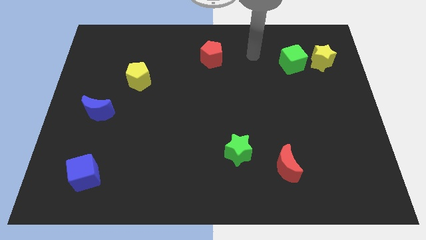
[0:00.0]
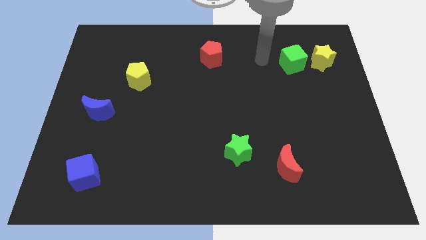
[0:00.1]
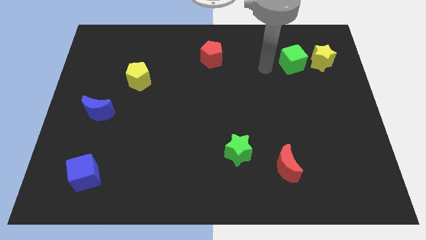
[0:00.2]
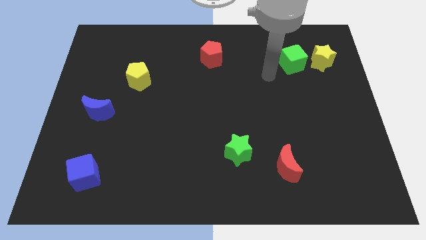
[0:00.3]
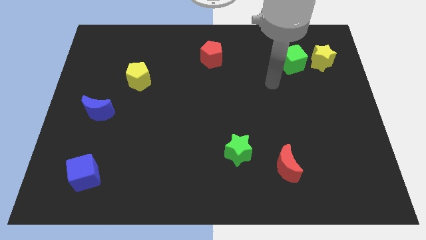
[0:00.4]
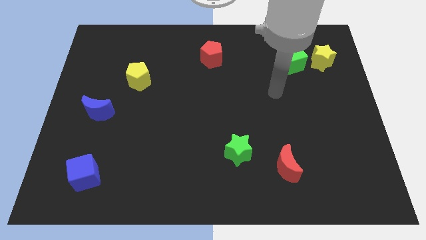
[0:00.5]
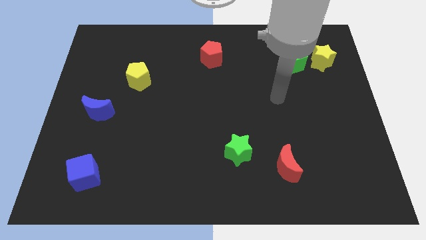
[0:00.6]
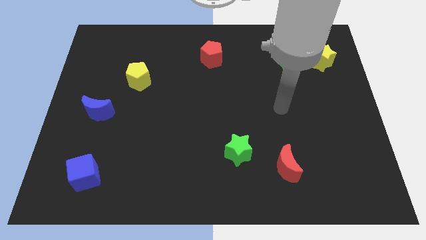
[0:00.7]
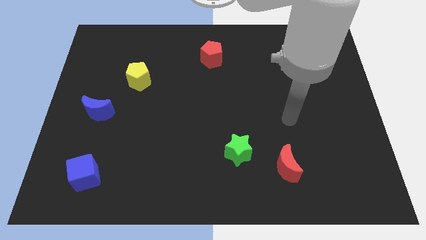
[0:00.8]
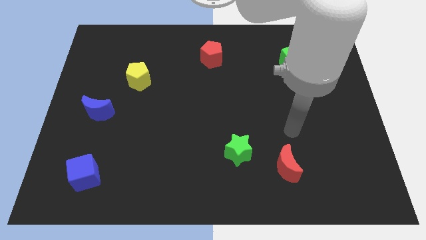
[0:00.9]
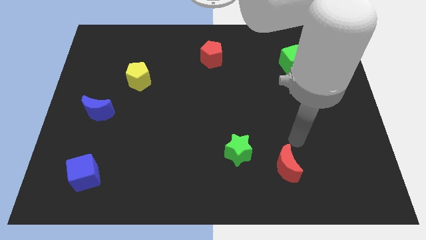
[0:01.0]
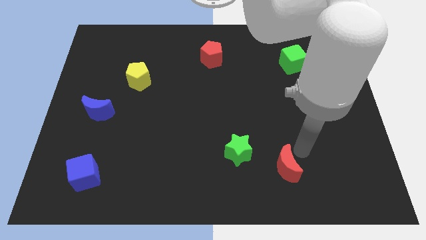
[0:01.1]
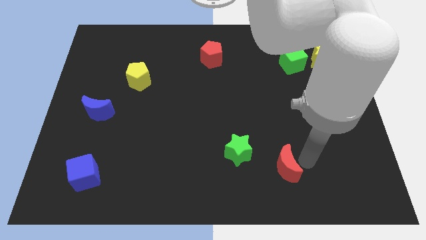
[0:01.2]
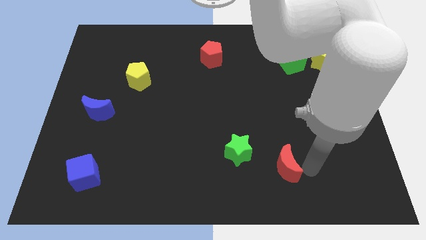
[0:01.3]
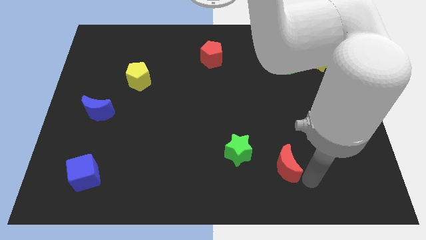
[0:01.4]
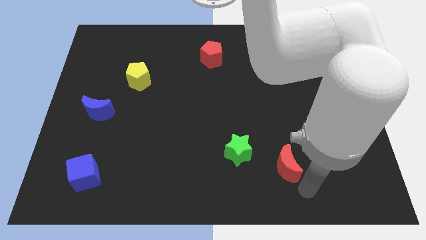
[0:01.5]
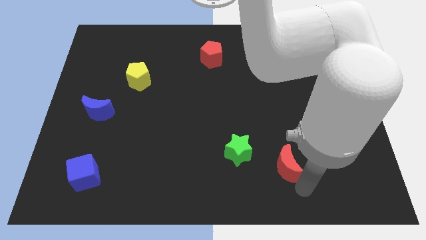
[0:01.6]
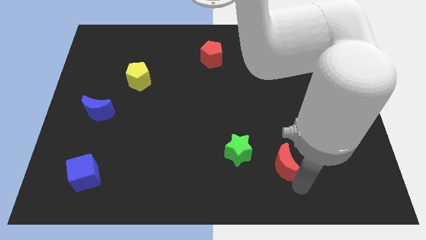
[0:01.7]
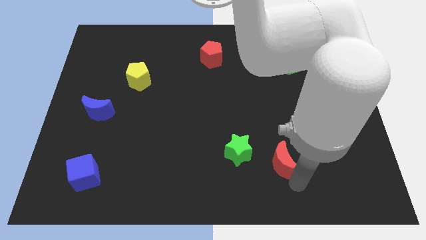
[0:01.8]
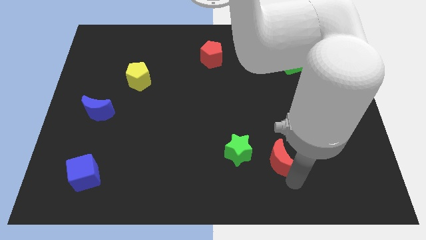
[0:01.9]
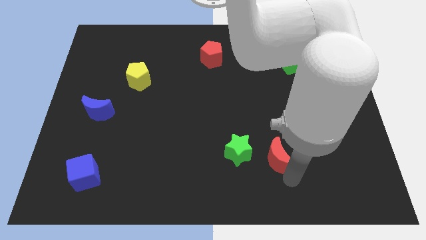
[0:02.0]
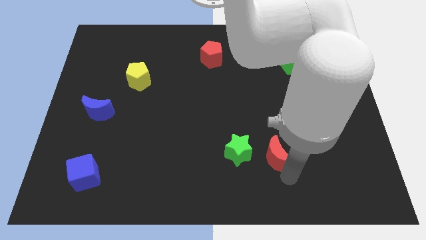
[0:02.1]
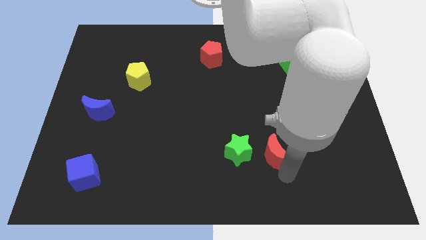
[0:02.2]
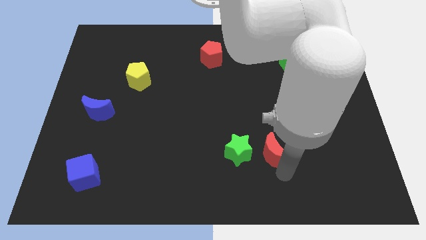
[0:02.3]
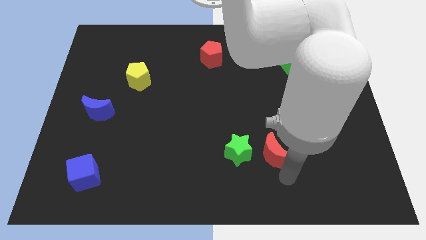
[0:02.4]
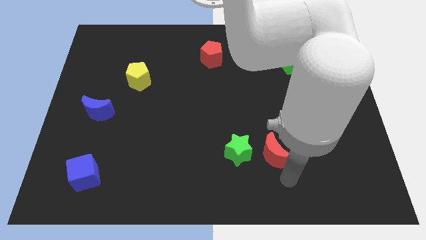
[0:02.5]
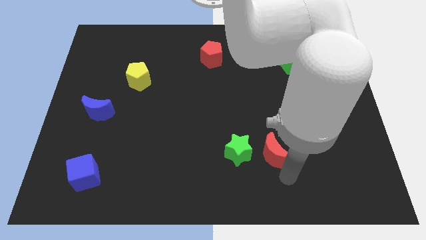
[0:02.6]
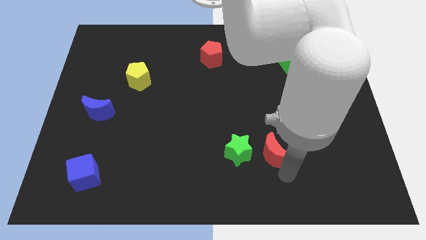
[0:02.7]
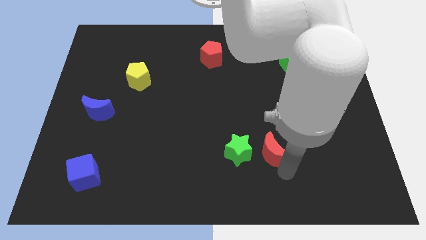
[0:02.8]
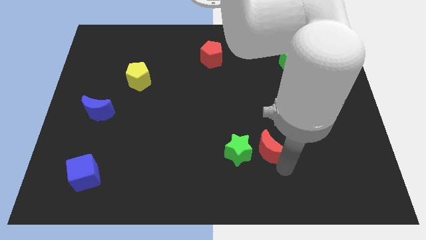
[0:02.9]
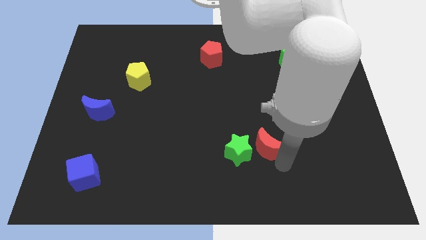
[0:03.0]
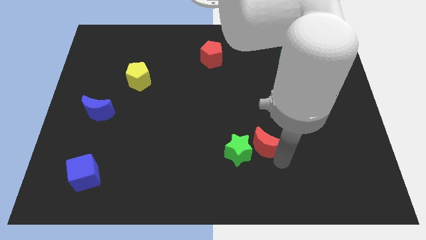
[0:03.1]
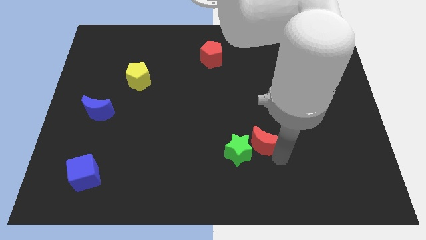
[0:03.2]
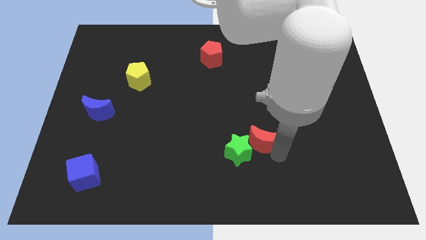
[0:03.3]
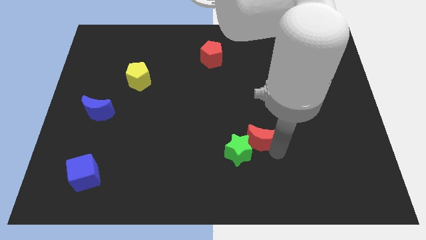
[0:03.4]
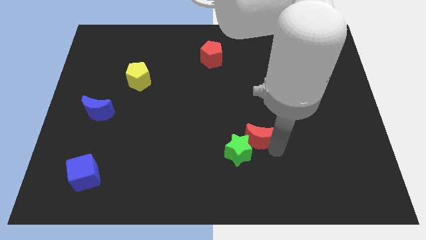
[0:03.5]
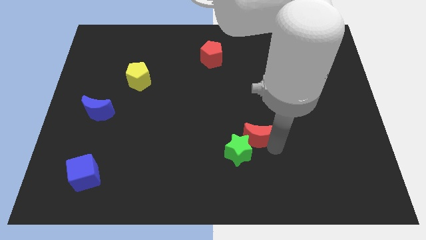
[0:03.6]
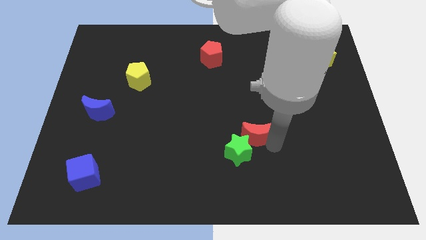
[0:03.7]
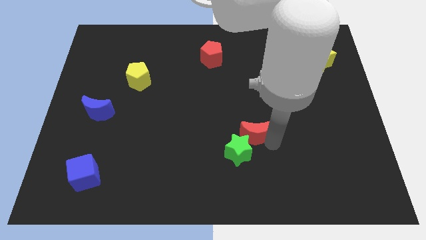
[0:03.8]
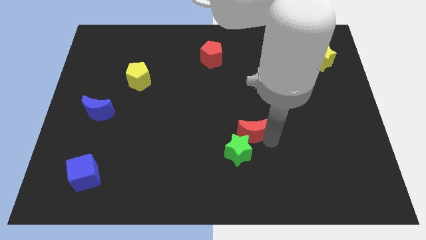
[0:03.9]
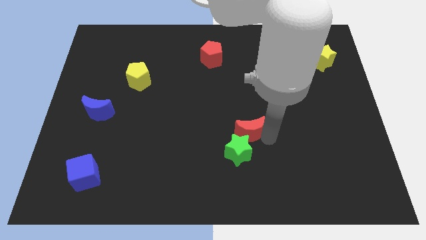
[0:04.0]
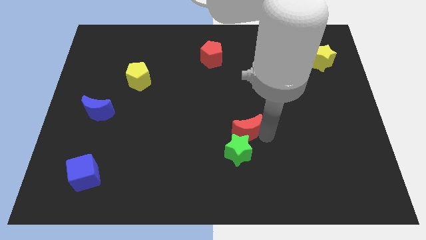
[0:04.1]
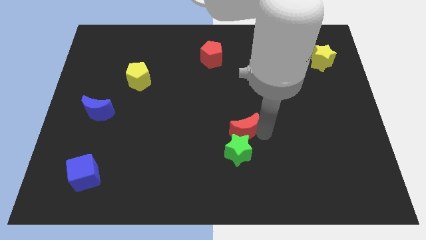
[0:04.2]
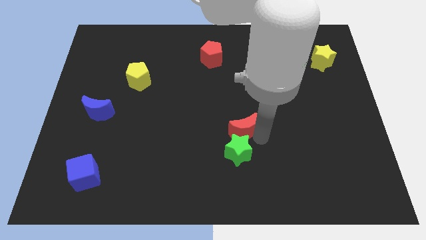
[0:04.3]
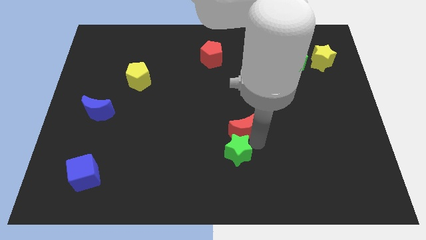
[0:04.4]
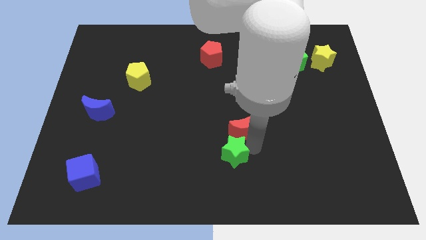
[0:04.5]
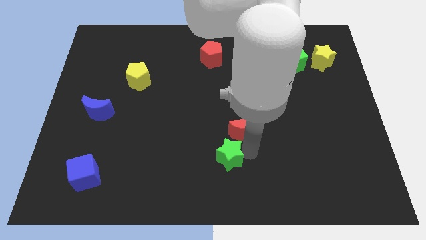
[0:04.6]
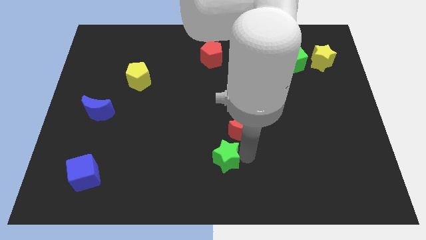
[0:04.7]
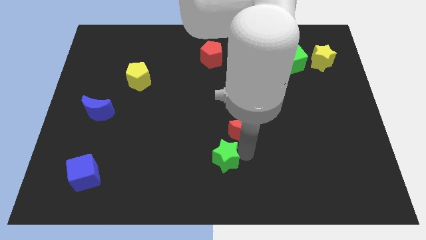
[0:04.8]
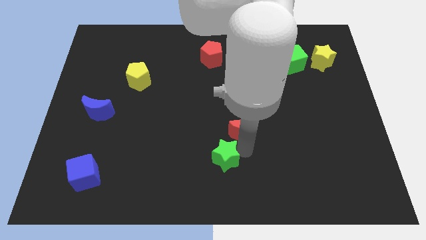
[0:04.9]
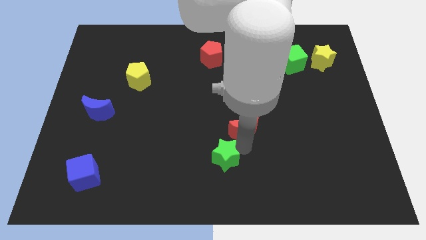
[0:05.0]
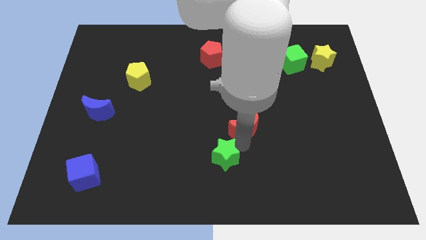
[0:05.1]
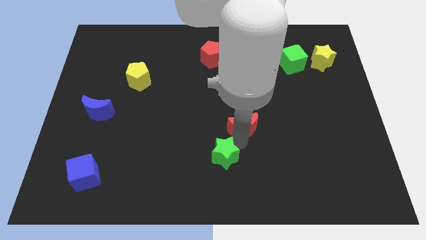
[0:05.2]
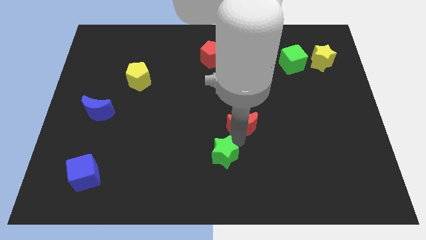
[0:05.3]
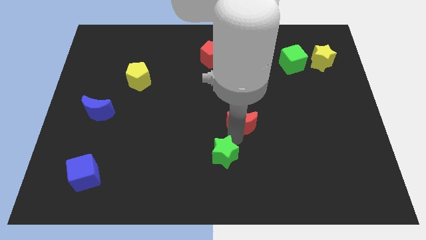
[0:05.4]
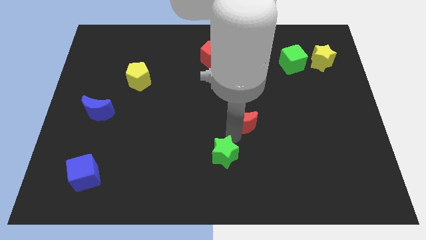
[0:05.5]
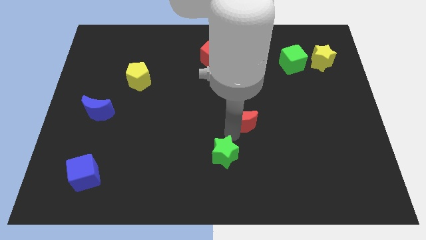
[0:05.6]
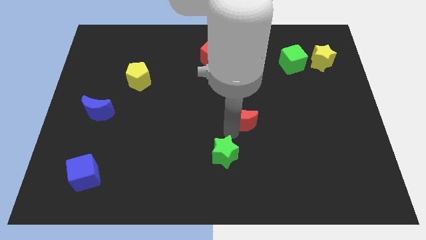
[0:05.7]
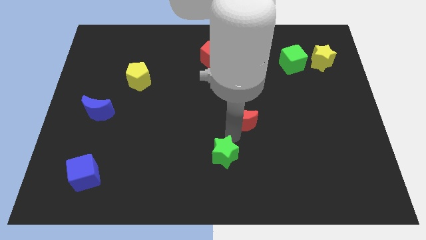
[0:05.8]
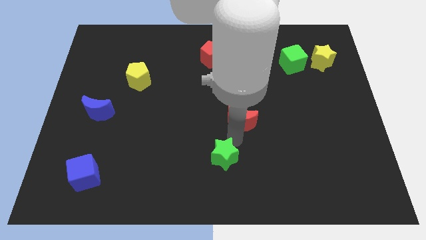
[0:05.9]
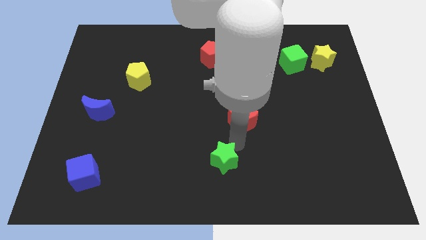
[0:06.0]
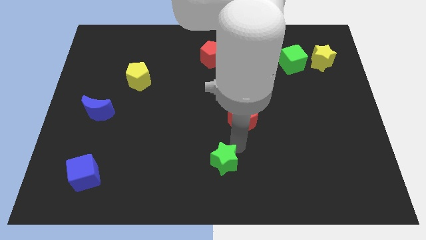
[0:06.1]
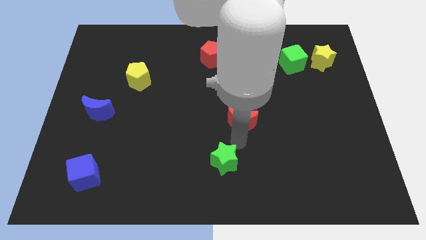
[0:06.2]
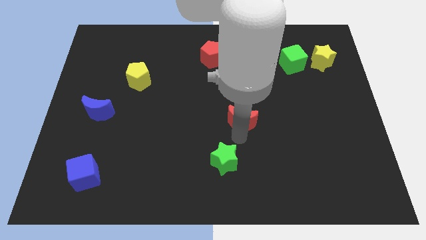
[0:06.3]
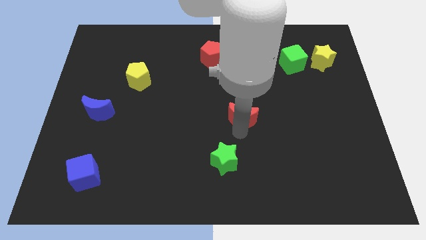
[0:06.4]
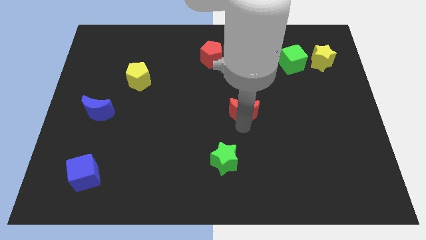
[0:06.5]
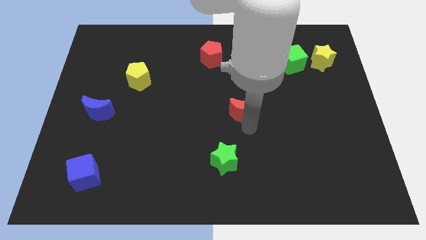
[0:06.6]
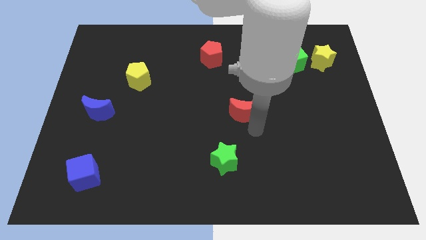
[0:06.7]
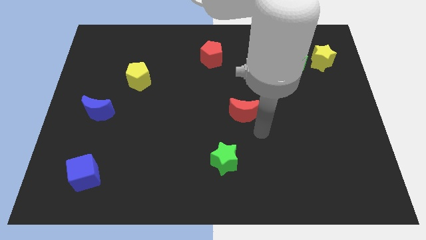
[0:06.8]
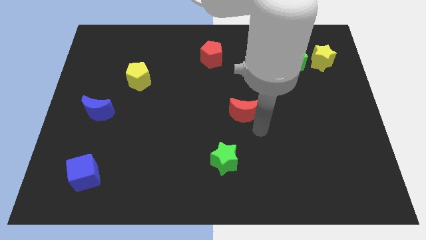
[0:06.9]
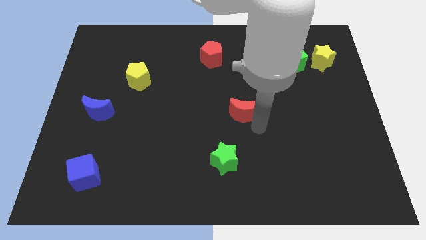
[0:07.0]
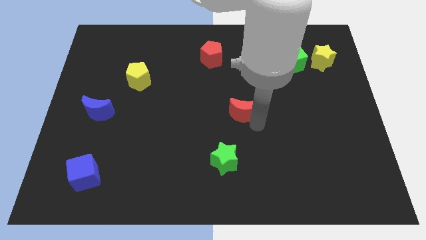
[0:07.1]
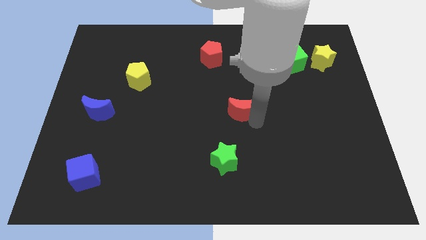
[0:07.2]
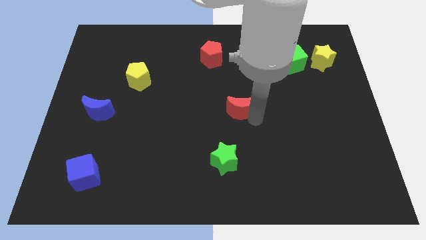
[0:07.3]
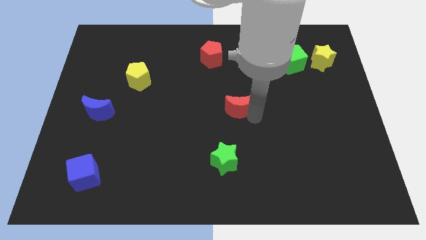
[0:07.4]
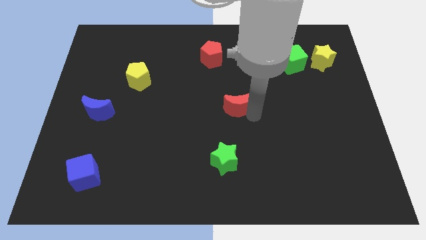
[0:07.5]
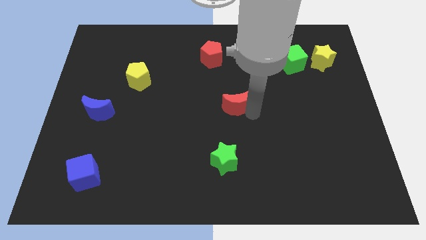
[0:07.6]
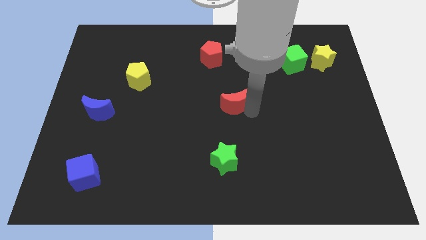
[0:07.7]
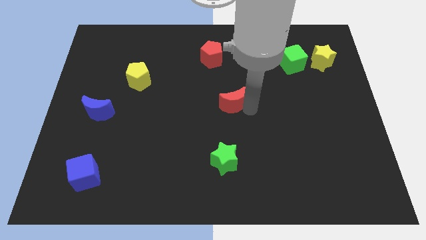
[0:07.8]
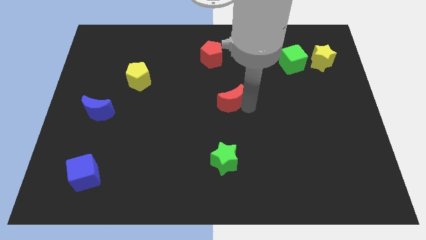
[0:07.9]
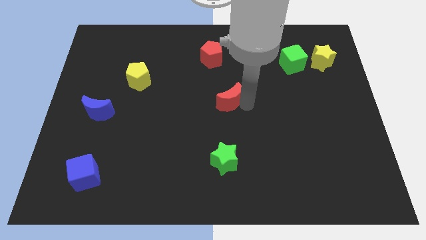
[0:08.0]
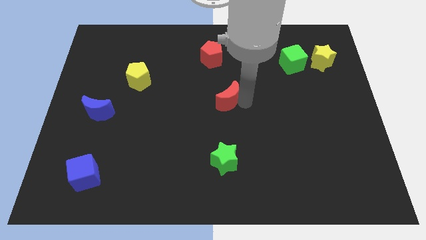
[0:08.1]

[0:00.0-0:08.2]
move the red moon up and left
